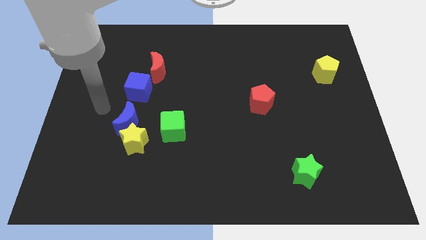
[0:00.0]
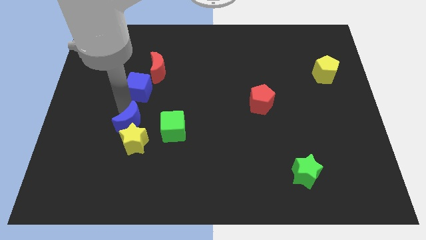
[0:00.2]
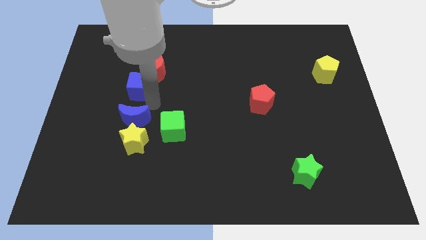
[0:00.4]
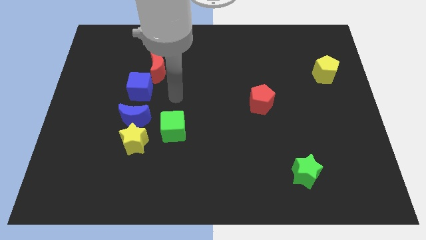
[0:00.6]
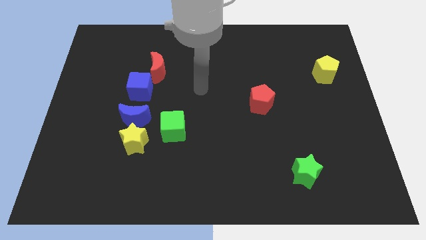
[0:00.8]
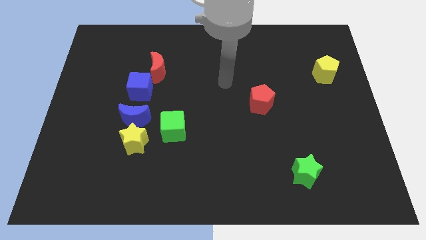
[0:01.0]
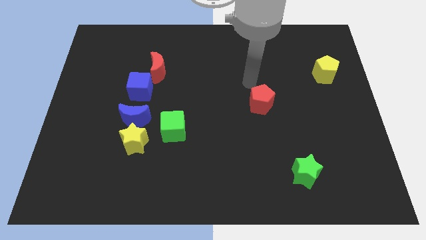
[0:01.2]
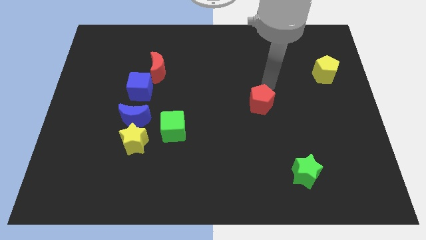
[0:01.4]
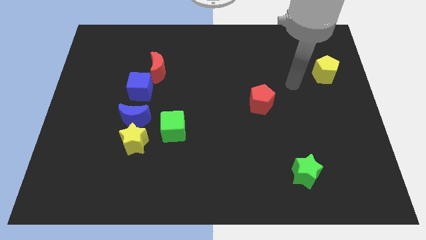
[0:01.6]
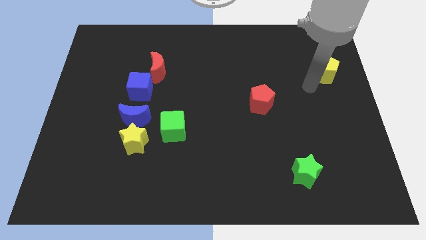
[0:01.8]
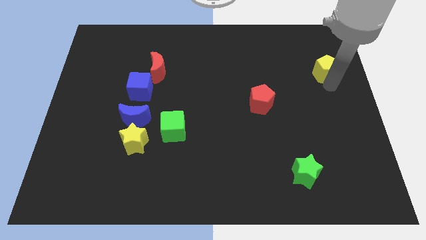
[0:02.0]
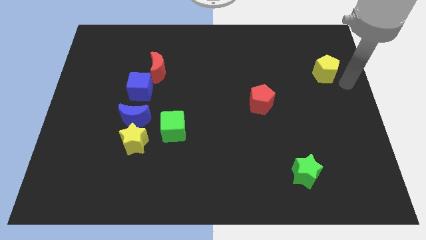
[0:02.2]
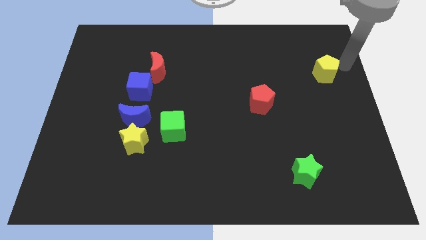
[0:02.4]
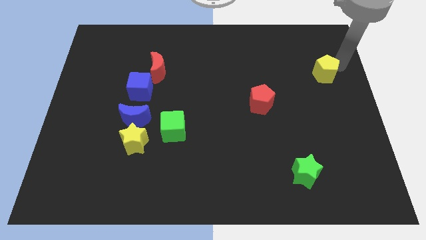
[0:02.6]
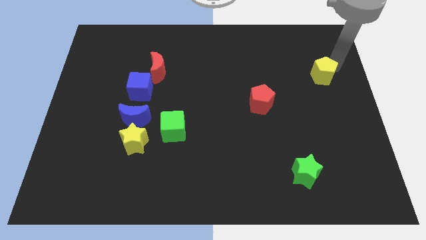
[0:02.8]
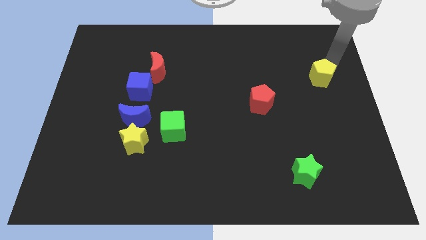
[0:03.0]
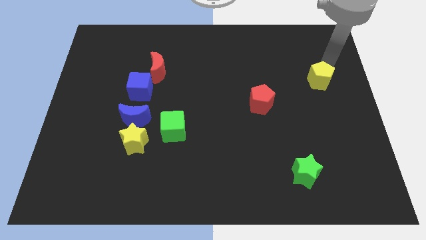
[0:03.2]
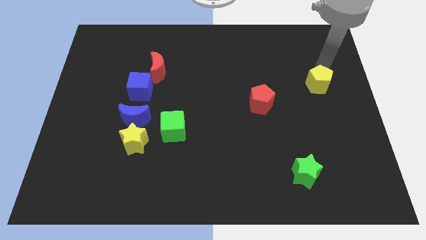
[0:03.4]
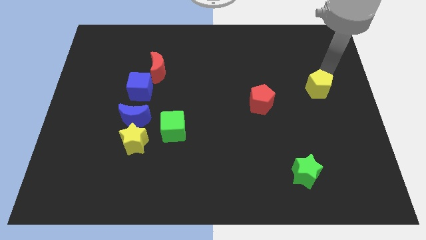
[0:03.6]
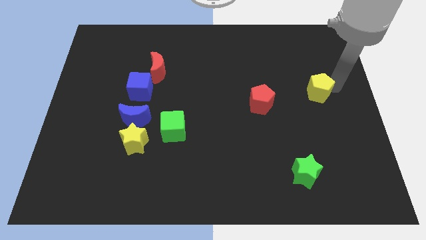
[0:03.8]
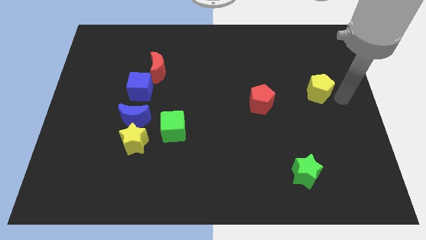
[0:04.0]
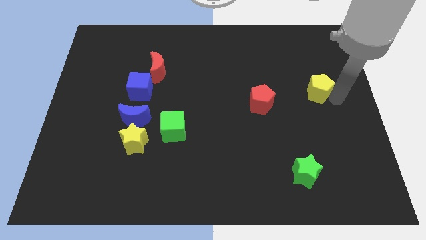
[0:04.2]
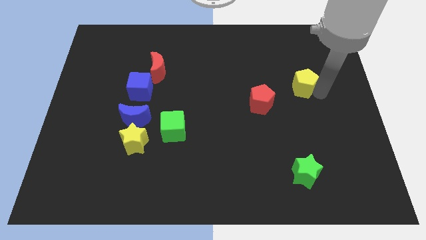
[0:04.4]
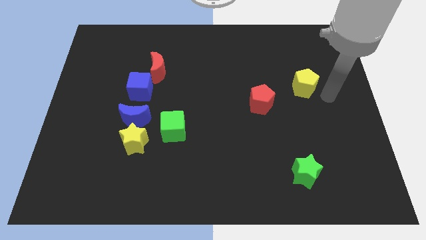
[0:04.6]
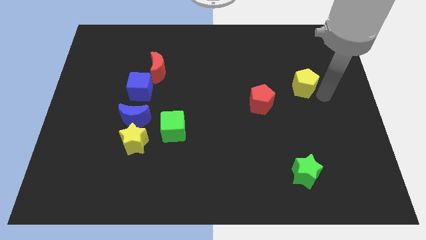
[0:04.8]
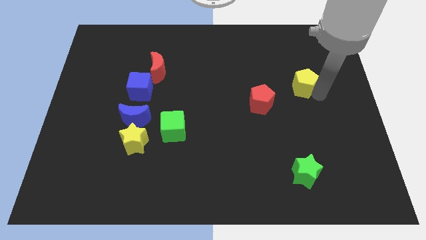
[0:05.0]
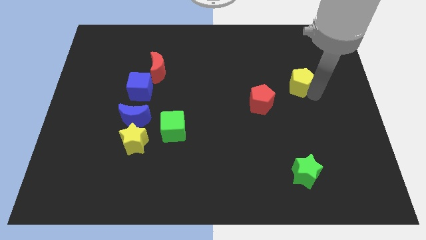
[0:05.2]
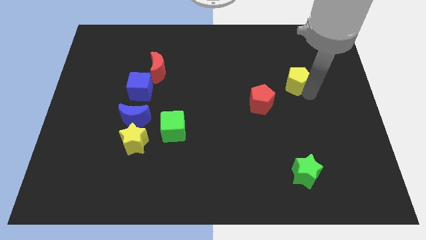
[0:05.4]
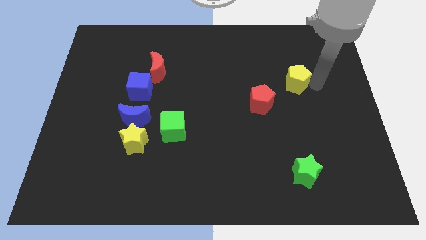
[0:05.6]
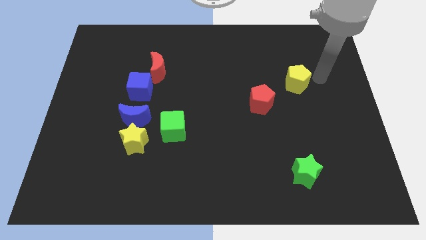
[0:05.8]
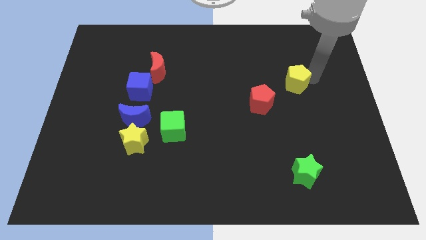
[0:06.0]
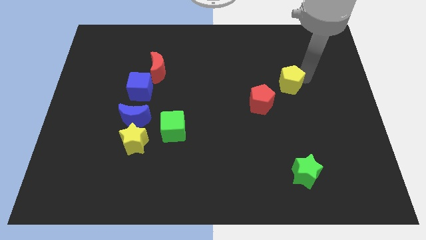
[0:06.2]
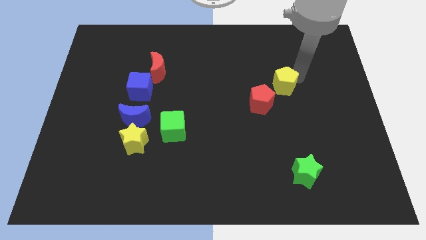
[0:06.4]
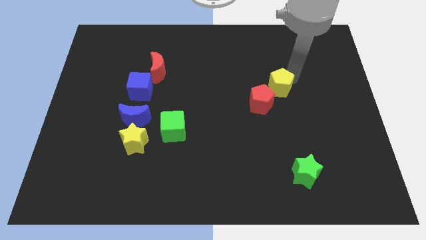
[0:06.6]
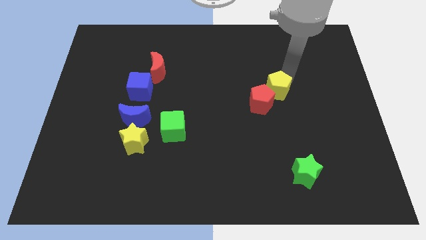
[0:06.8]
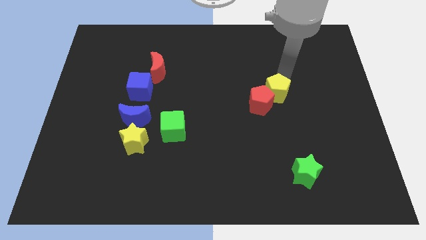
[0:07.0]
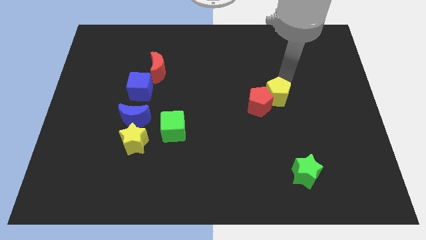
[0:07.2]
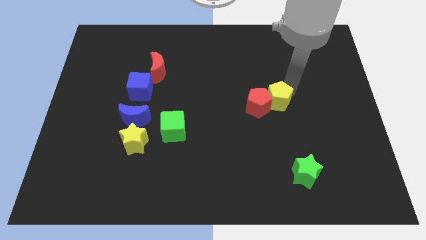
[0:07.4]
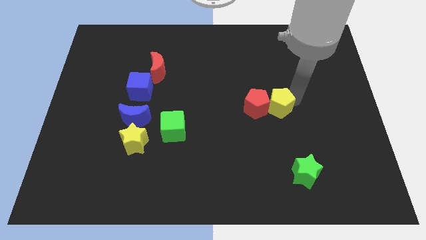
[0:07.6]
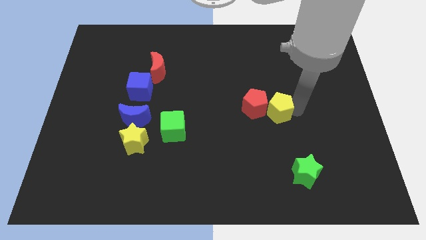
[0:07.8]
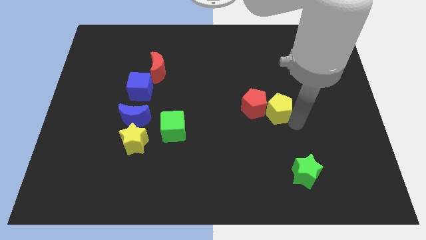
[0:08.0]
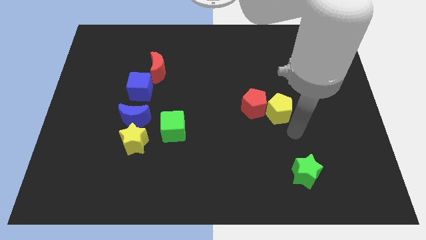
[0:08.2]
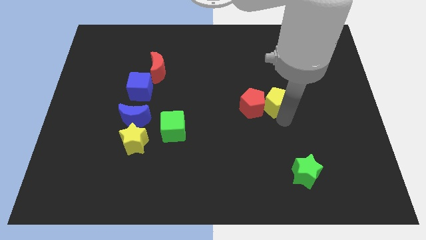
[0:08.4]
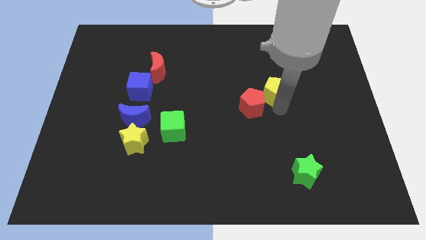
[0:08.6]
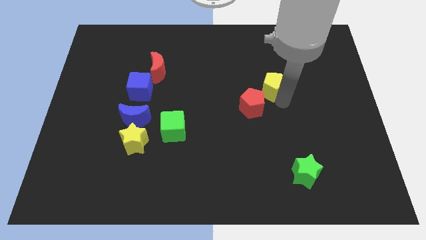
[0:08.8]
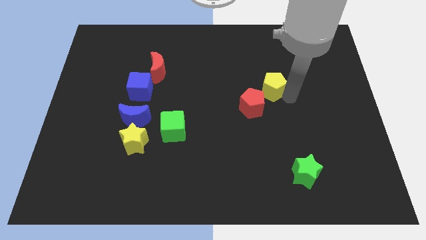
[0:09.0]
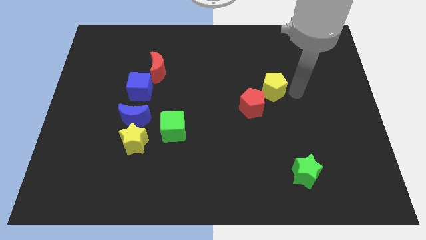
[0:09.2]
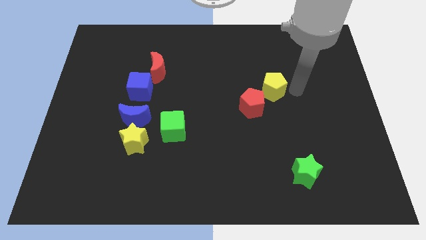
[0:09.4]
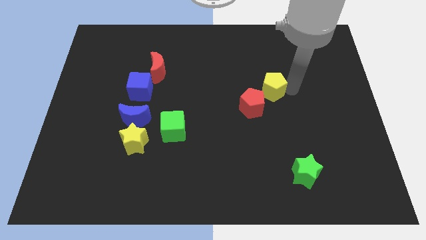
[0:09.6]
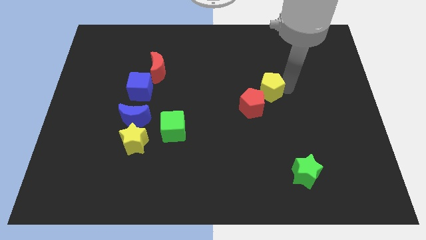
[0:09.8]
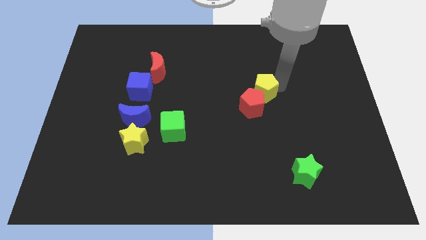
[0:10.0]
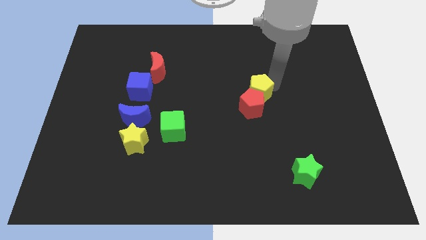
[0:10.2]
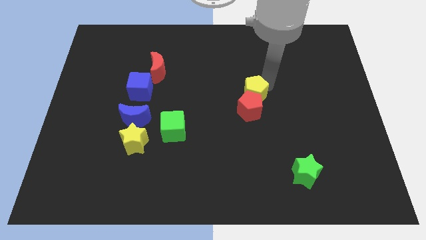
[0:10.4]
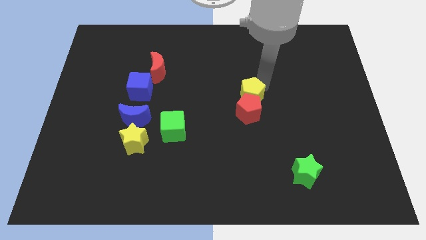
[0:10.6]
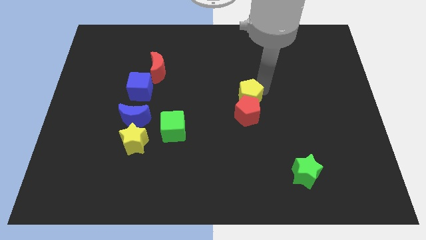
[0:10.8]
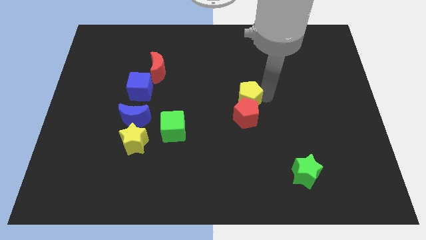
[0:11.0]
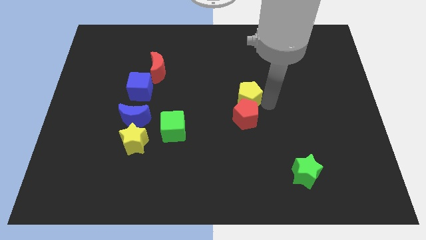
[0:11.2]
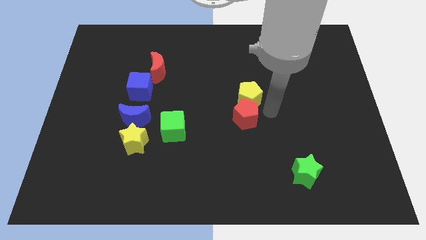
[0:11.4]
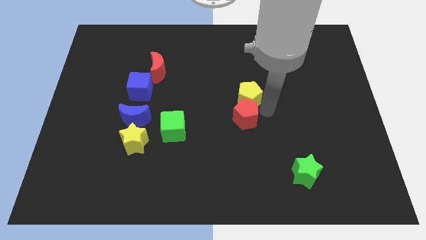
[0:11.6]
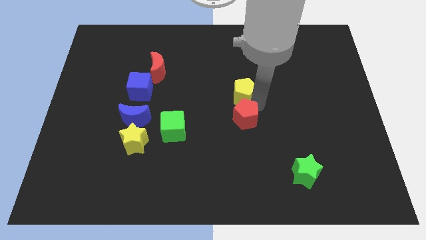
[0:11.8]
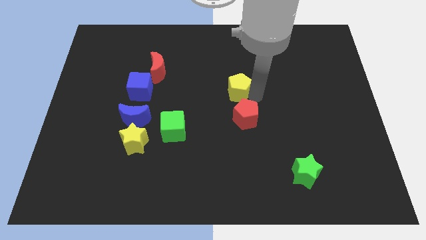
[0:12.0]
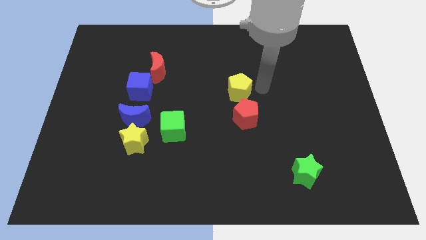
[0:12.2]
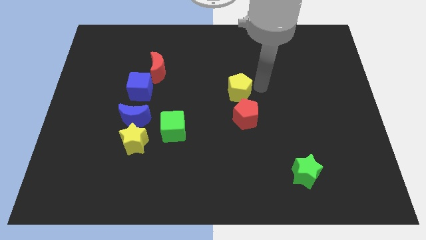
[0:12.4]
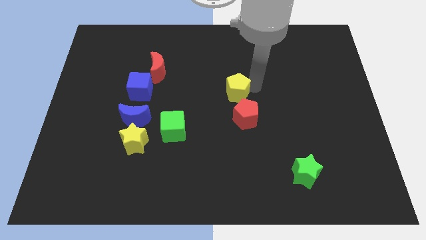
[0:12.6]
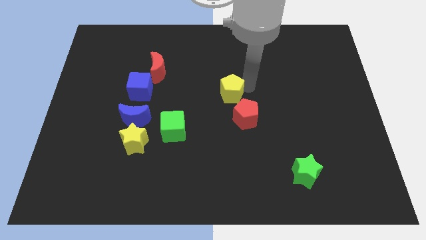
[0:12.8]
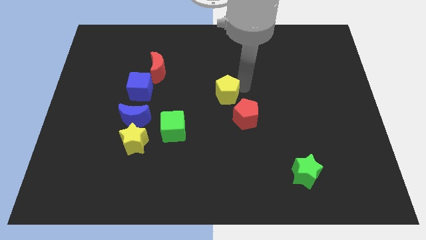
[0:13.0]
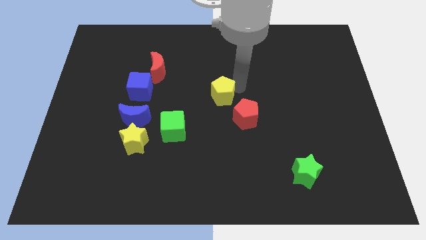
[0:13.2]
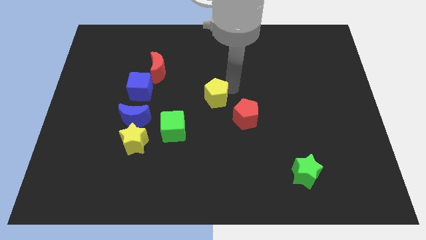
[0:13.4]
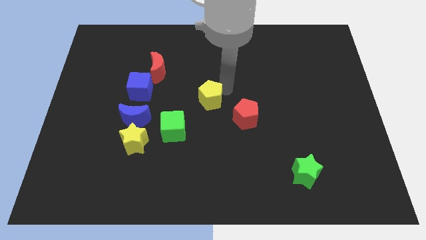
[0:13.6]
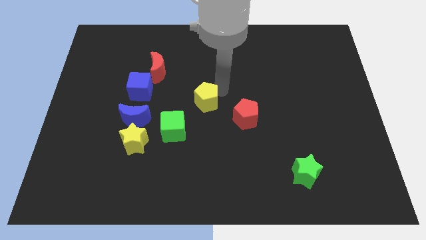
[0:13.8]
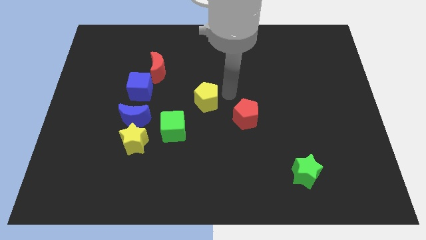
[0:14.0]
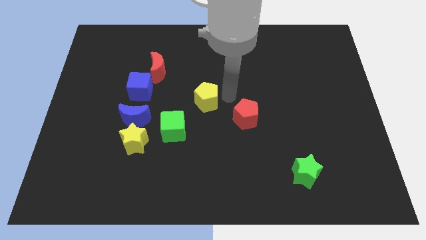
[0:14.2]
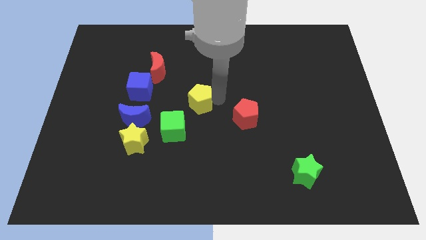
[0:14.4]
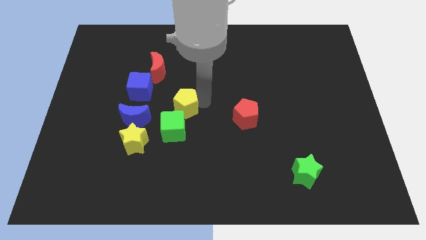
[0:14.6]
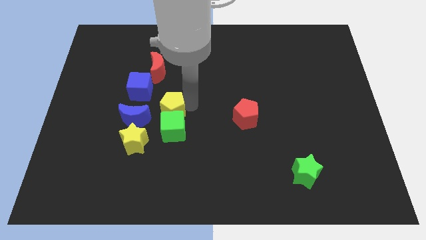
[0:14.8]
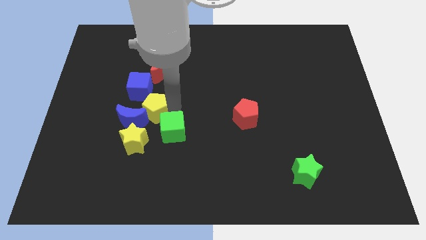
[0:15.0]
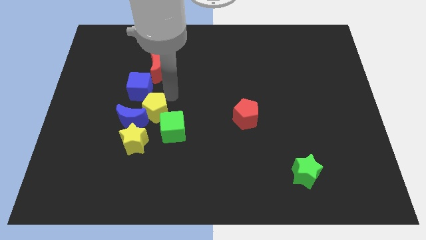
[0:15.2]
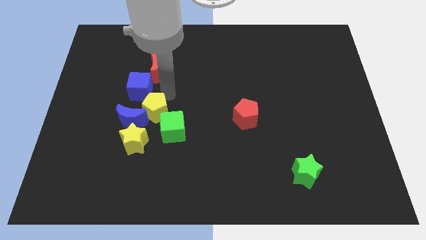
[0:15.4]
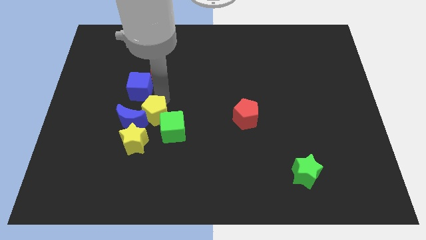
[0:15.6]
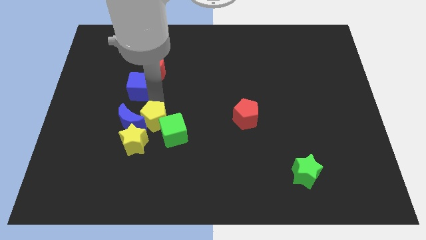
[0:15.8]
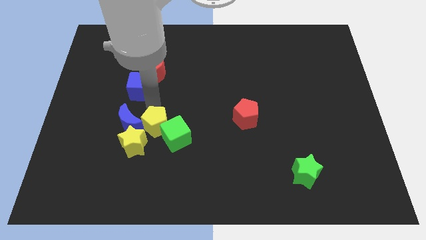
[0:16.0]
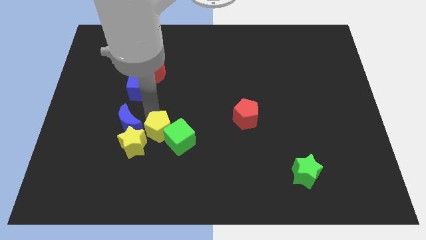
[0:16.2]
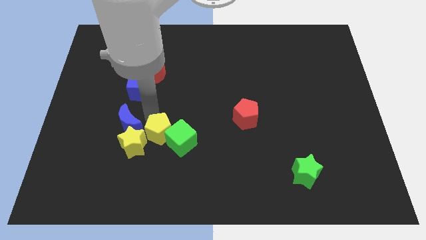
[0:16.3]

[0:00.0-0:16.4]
put the yellow pentagon close to the yellow star
